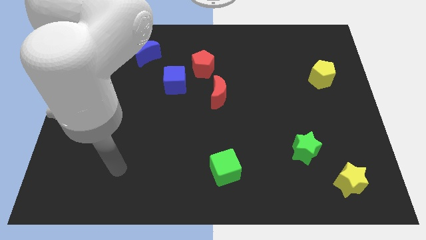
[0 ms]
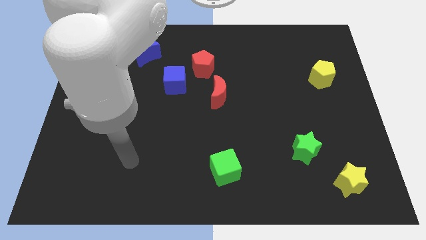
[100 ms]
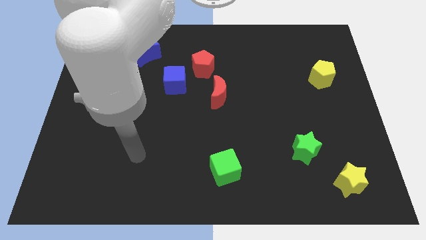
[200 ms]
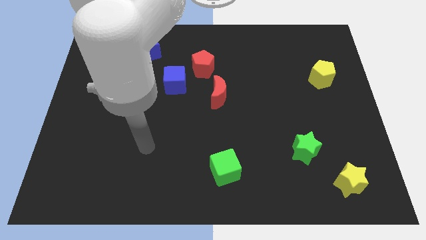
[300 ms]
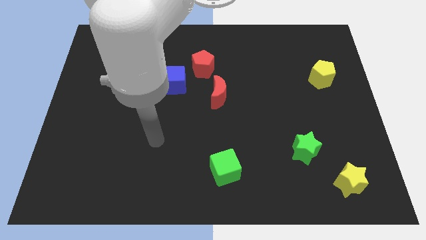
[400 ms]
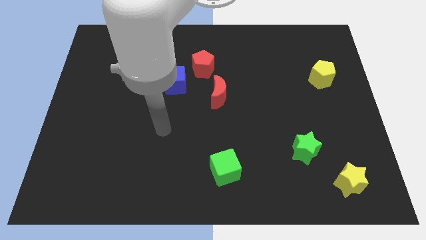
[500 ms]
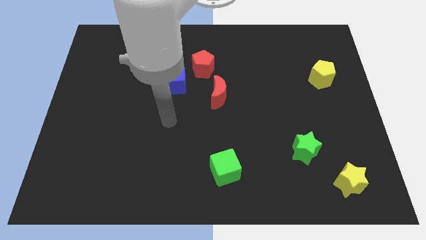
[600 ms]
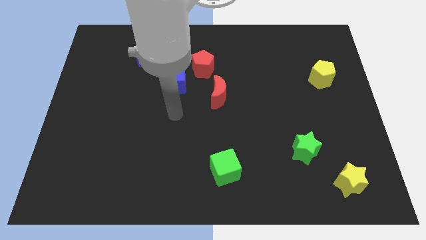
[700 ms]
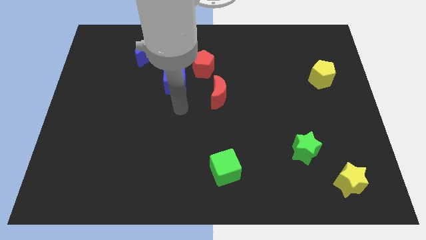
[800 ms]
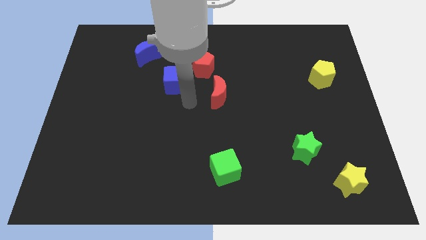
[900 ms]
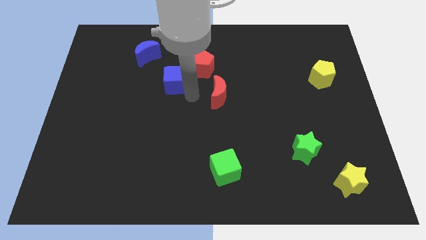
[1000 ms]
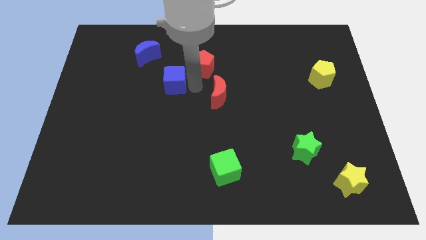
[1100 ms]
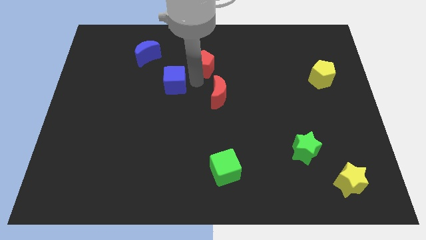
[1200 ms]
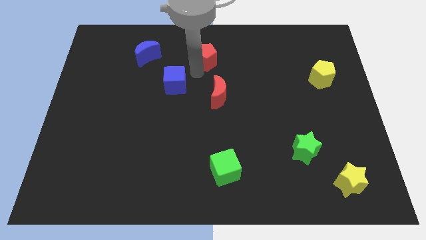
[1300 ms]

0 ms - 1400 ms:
separate the blue cube from the red pentagon

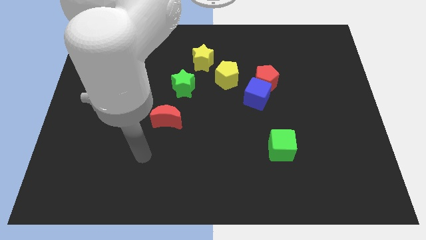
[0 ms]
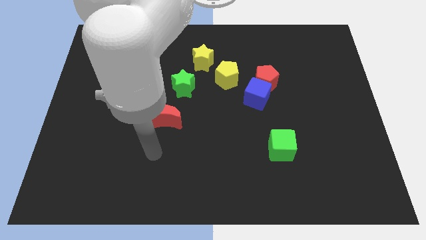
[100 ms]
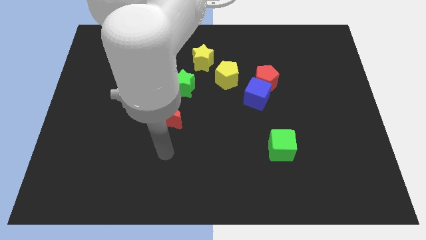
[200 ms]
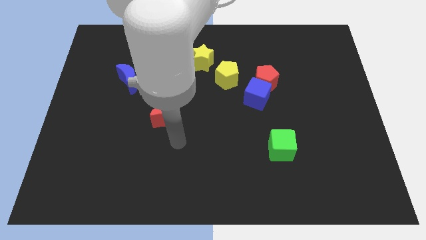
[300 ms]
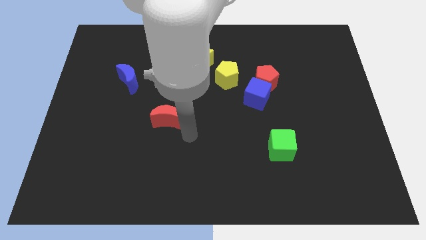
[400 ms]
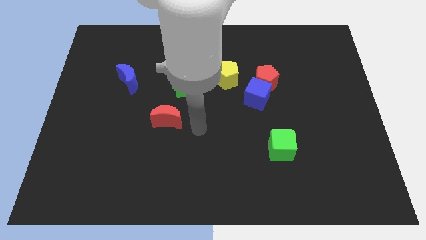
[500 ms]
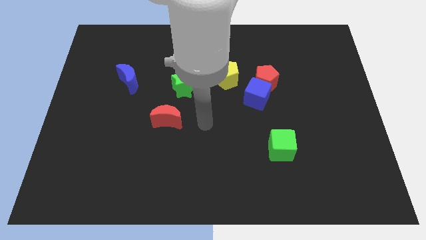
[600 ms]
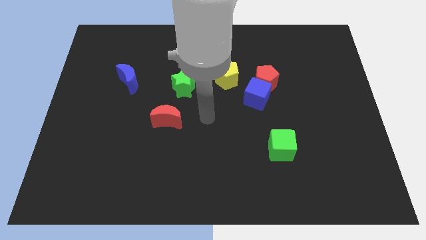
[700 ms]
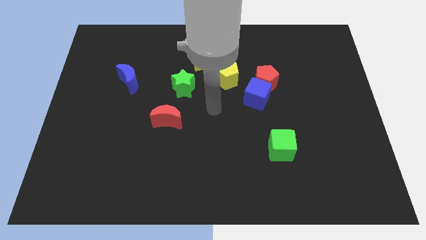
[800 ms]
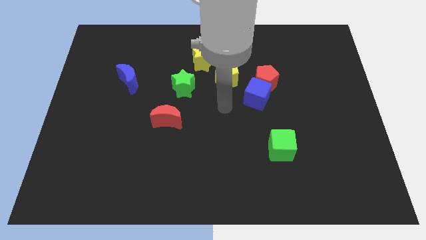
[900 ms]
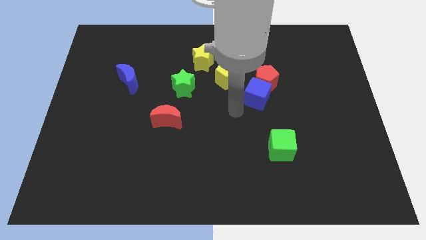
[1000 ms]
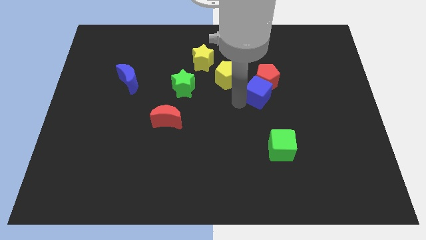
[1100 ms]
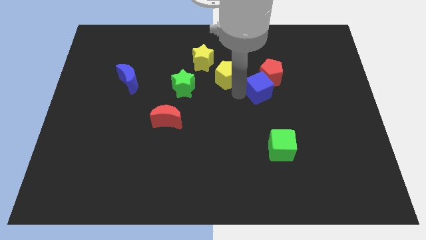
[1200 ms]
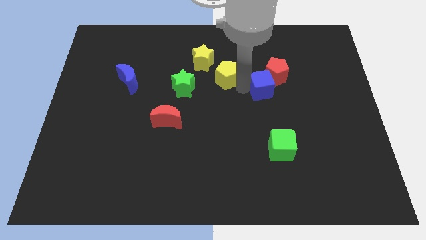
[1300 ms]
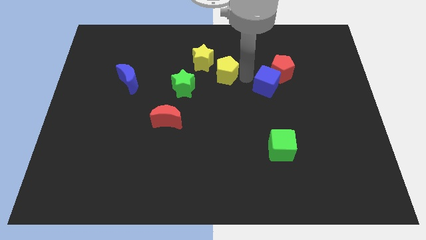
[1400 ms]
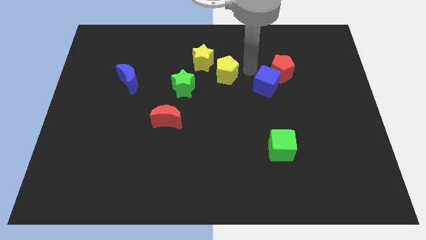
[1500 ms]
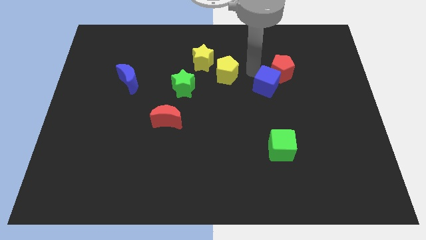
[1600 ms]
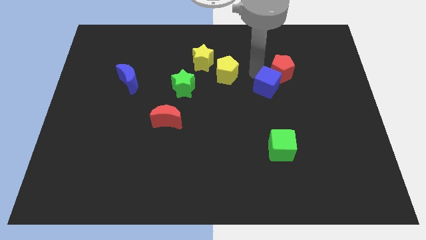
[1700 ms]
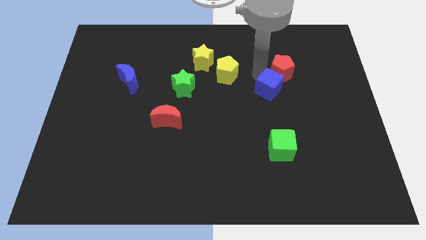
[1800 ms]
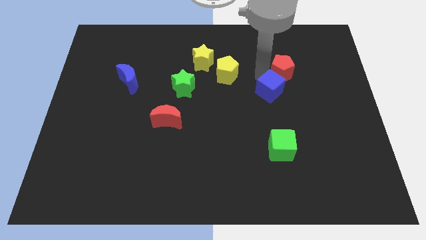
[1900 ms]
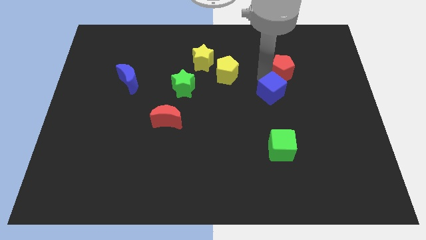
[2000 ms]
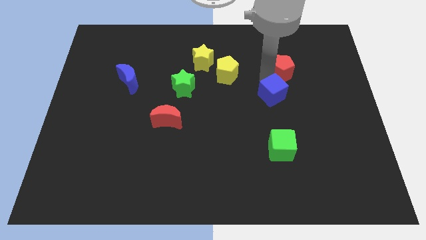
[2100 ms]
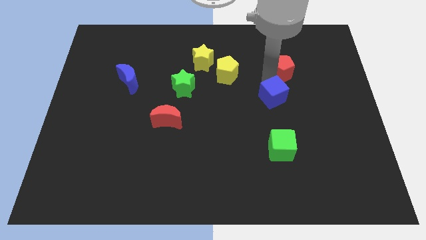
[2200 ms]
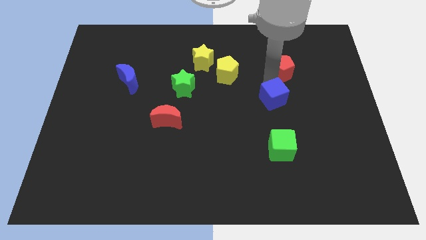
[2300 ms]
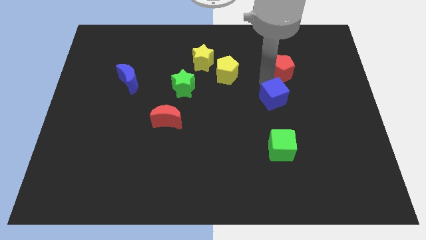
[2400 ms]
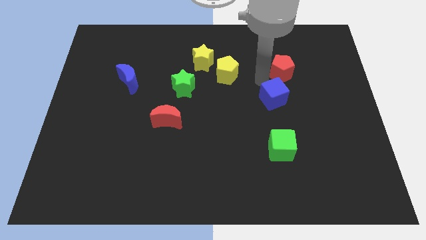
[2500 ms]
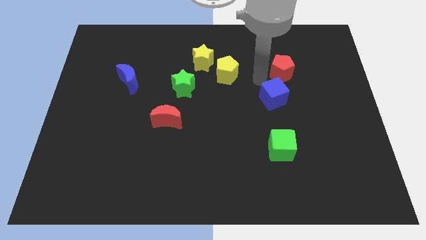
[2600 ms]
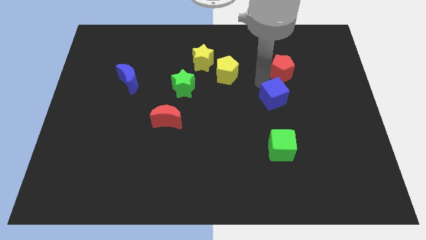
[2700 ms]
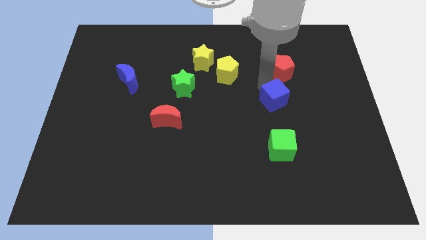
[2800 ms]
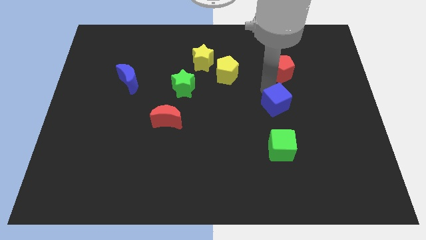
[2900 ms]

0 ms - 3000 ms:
pull the blue cube apart from the red pentagon and yellow pentagon

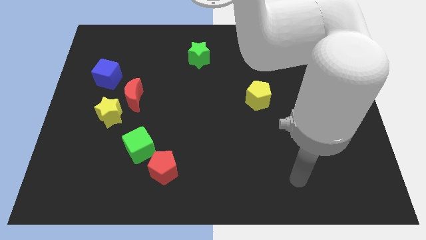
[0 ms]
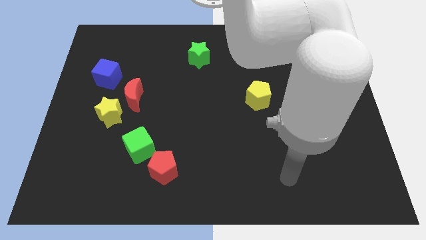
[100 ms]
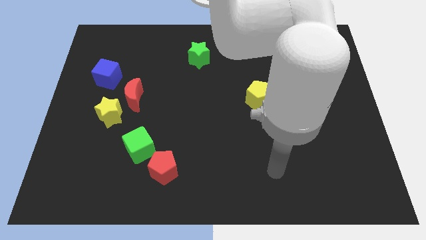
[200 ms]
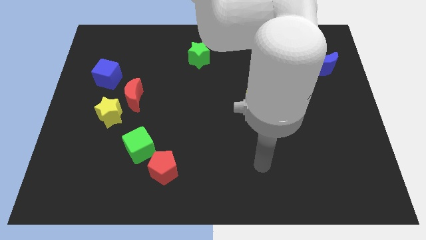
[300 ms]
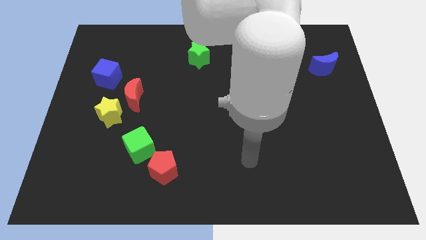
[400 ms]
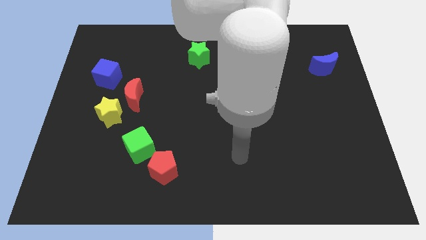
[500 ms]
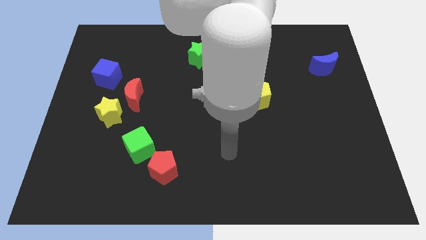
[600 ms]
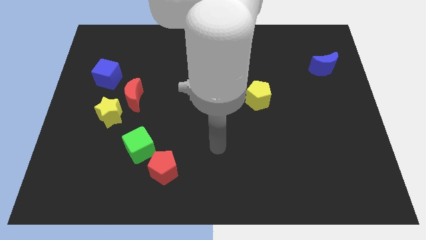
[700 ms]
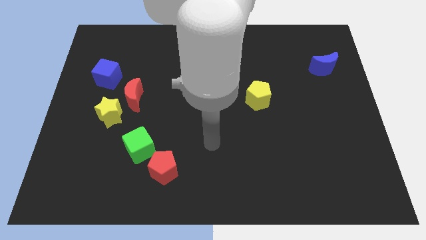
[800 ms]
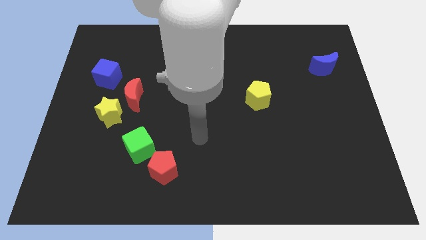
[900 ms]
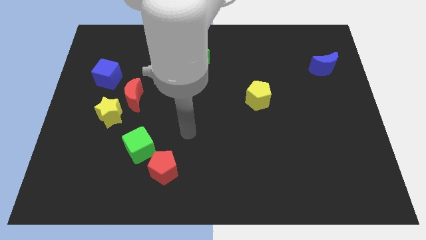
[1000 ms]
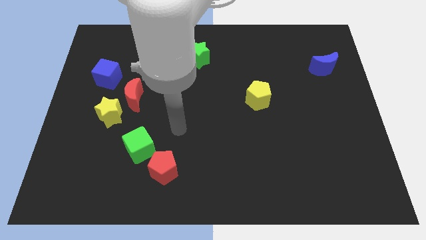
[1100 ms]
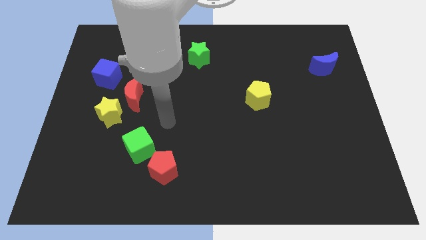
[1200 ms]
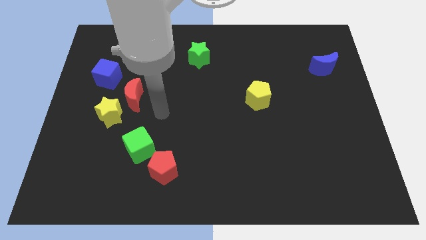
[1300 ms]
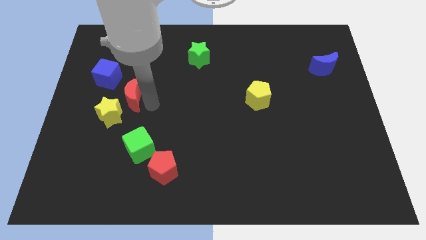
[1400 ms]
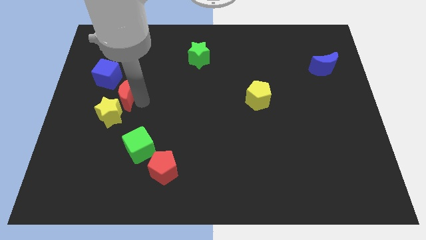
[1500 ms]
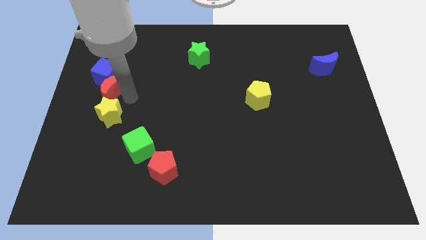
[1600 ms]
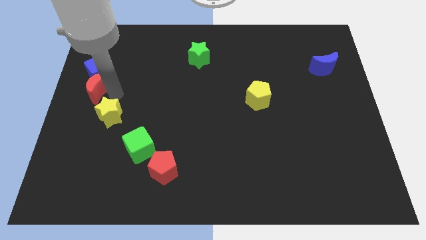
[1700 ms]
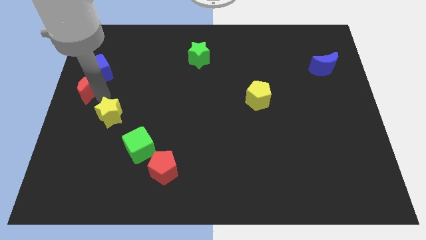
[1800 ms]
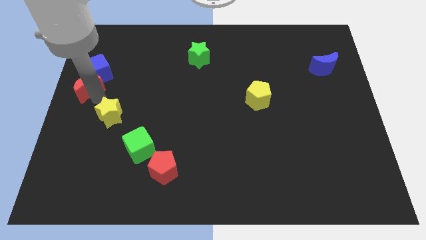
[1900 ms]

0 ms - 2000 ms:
move the yellow star away from the red moon

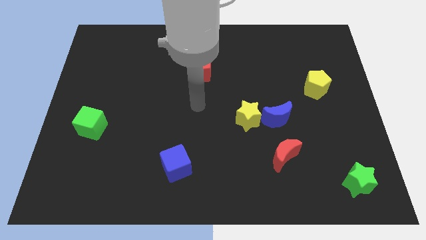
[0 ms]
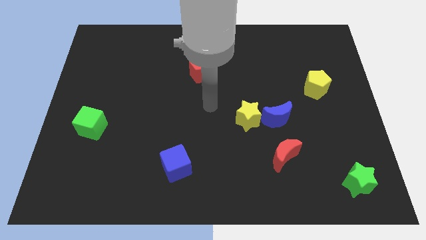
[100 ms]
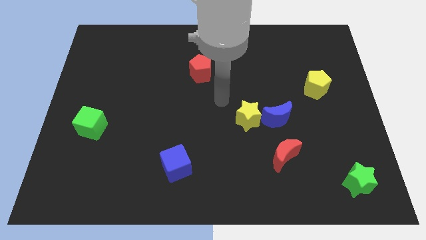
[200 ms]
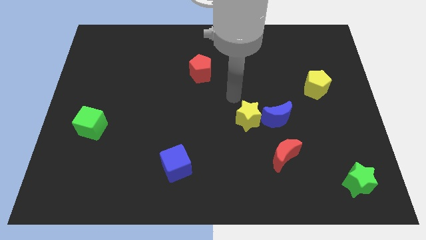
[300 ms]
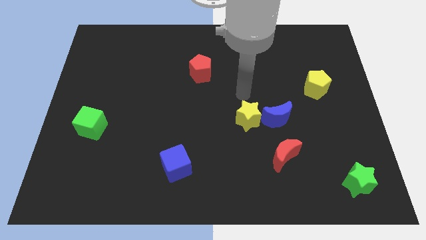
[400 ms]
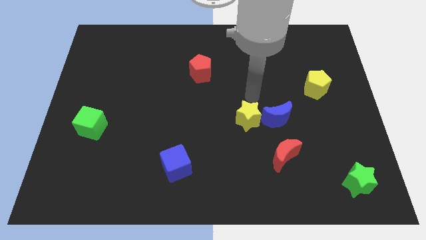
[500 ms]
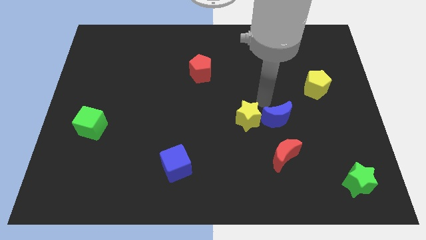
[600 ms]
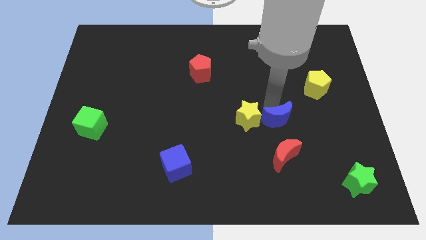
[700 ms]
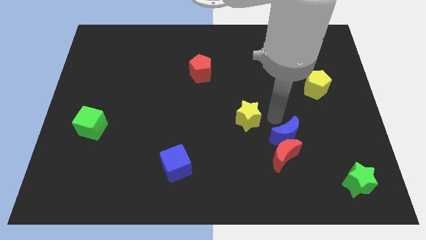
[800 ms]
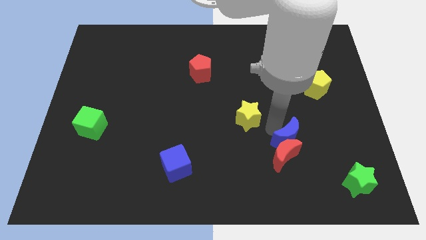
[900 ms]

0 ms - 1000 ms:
separate the yellow star from the blue moon

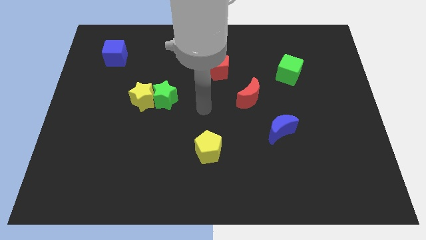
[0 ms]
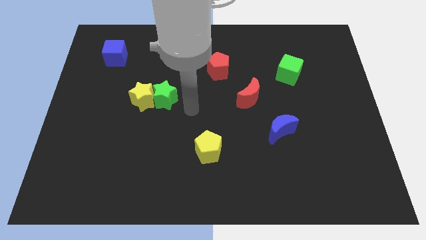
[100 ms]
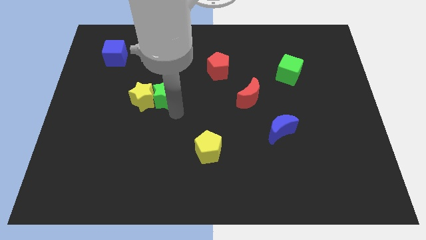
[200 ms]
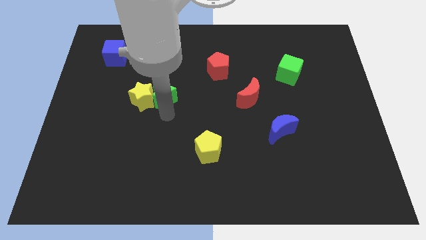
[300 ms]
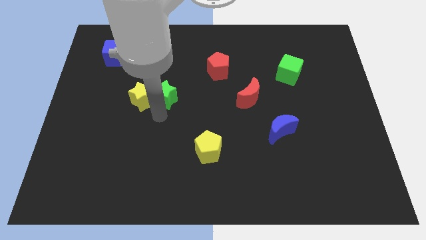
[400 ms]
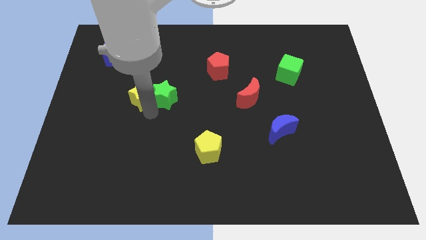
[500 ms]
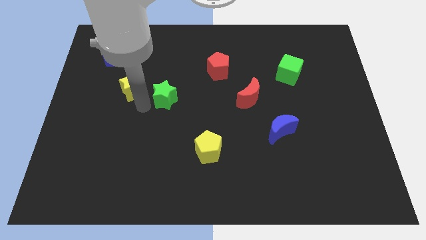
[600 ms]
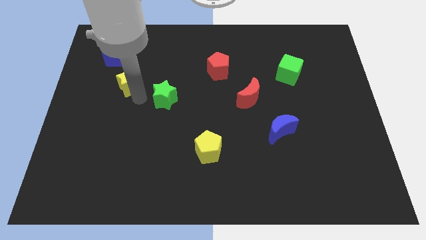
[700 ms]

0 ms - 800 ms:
move the green star away from the yellow star

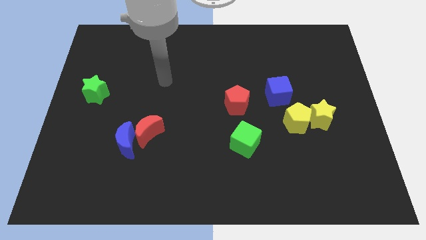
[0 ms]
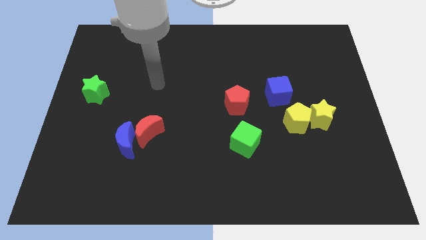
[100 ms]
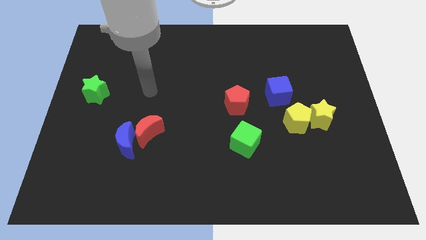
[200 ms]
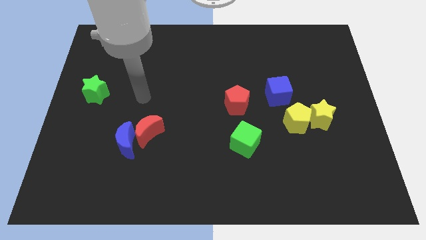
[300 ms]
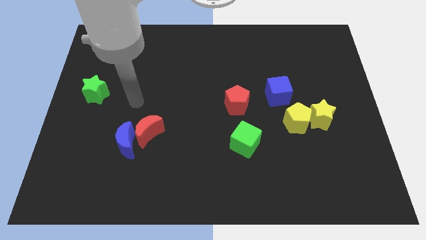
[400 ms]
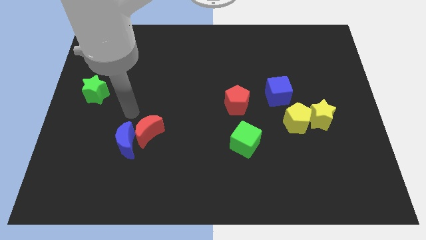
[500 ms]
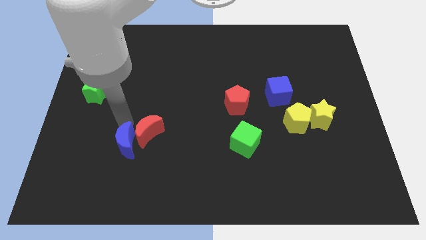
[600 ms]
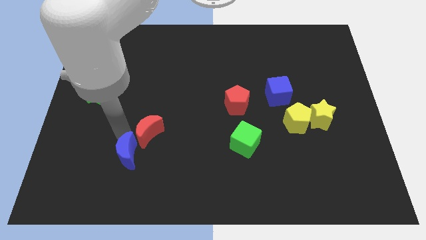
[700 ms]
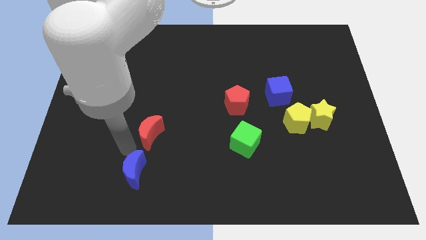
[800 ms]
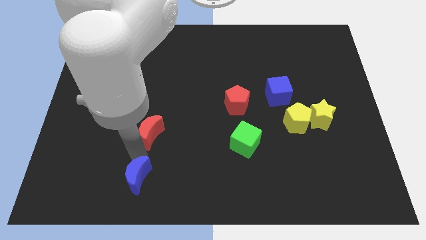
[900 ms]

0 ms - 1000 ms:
separate the red moon from the blue moon
